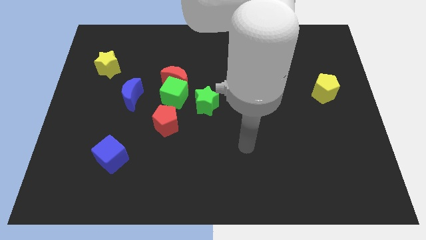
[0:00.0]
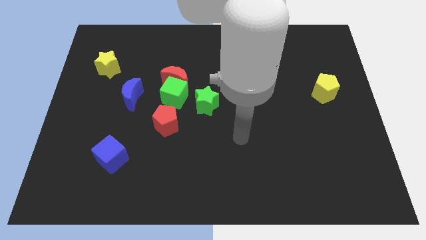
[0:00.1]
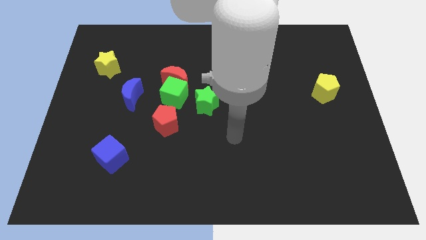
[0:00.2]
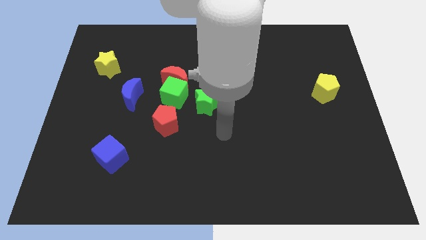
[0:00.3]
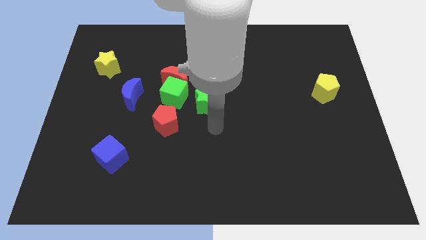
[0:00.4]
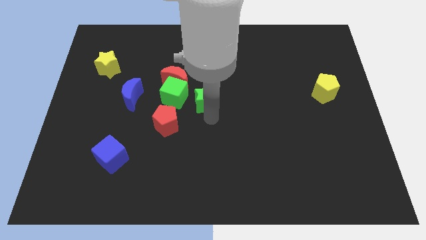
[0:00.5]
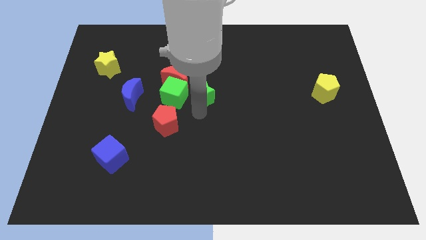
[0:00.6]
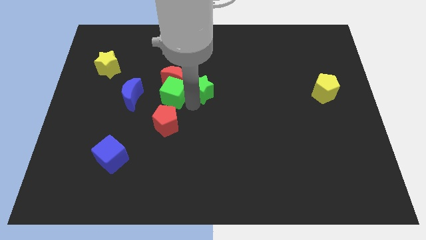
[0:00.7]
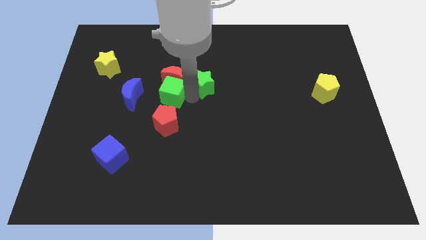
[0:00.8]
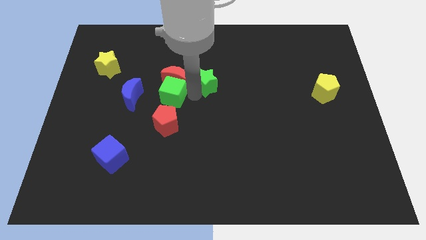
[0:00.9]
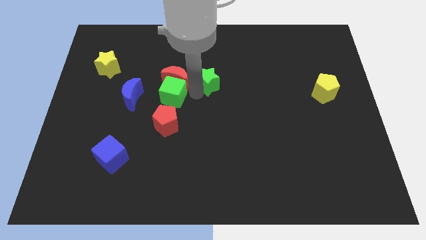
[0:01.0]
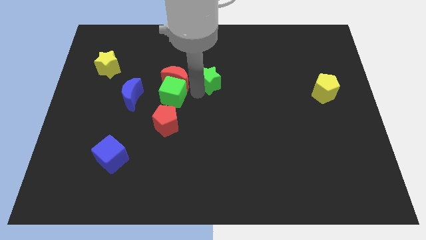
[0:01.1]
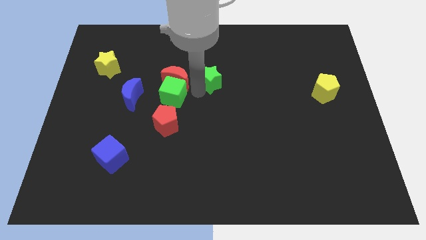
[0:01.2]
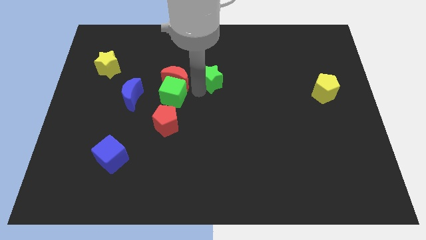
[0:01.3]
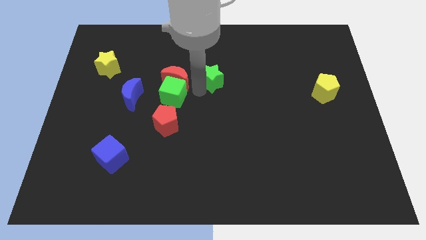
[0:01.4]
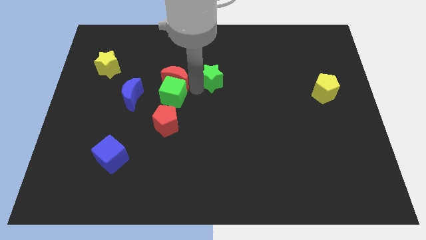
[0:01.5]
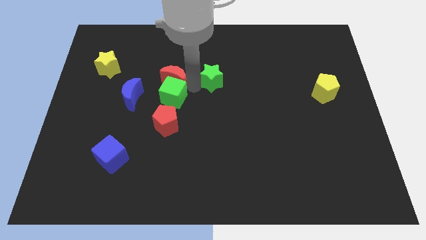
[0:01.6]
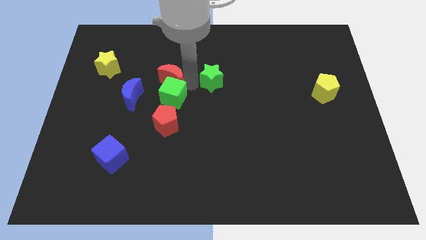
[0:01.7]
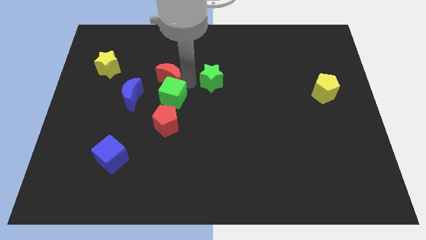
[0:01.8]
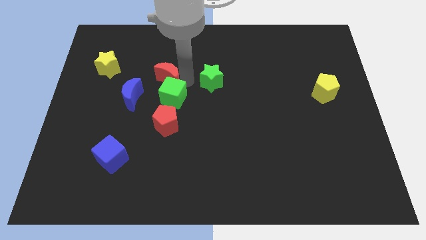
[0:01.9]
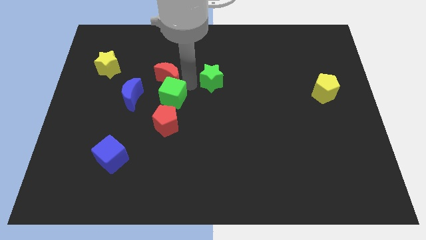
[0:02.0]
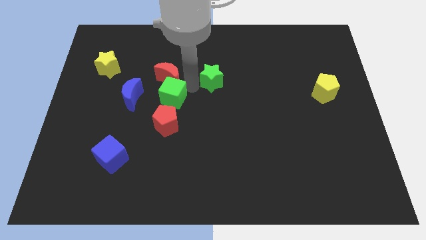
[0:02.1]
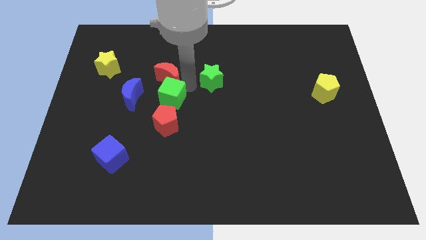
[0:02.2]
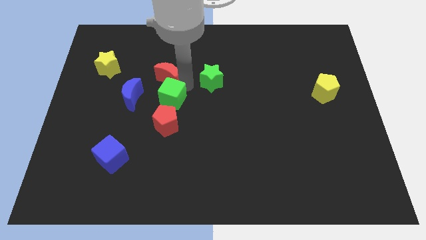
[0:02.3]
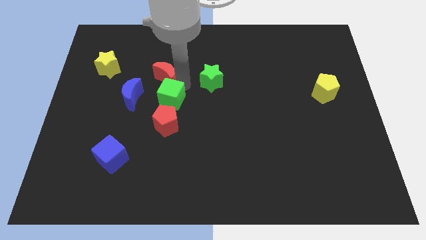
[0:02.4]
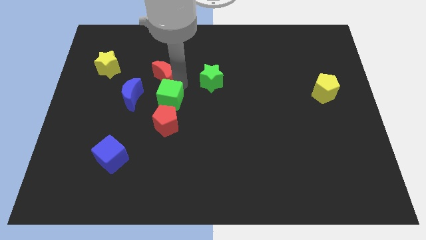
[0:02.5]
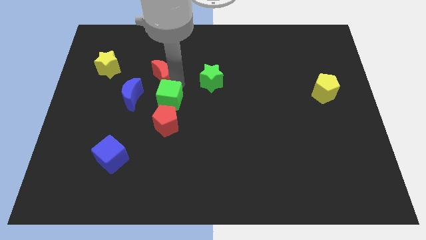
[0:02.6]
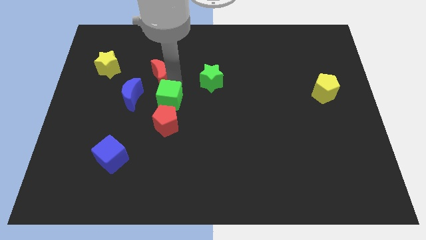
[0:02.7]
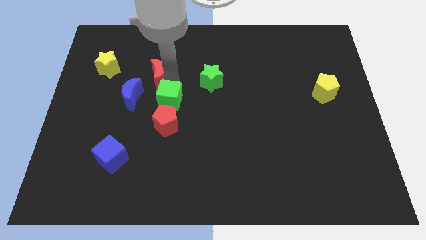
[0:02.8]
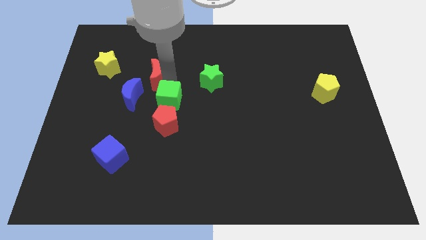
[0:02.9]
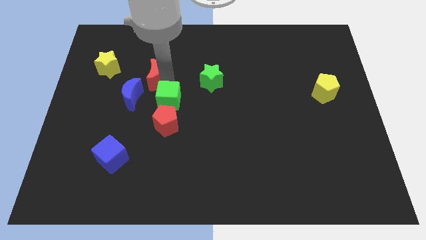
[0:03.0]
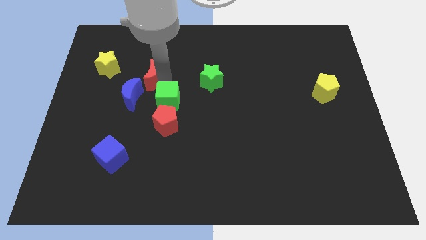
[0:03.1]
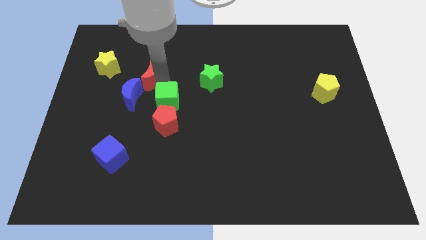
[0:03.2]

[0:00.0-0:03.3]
separate the red moon from the green cube and green star

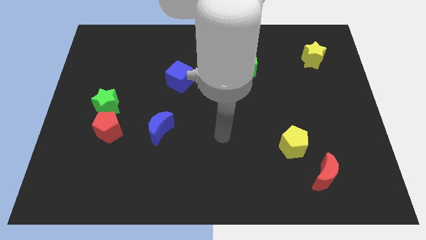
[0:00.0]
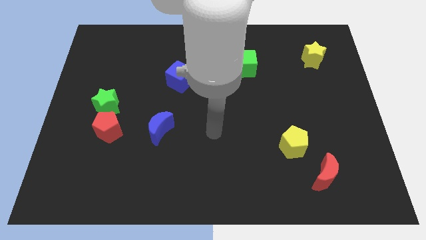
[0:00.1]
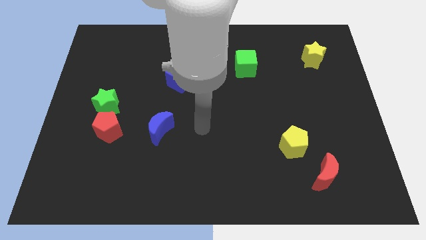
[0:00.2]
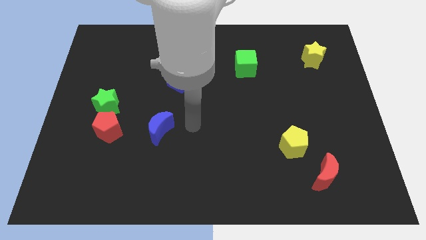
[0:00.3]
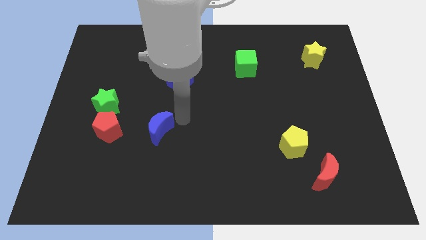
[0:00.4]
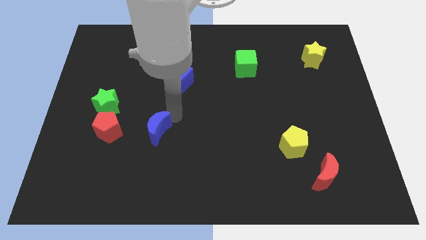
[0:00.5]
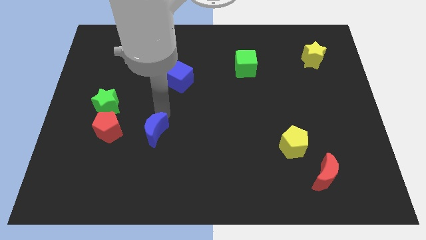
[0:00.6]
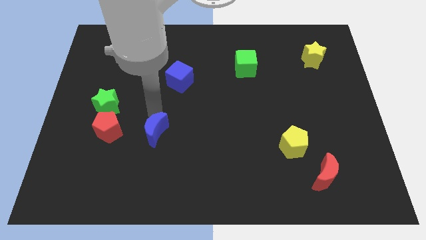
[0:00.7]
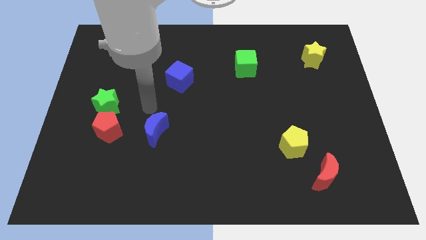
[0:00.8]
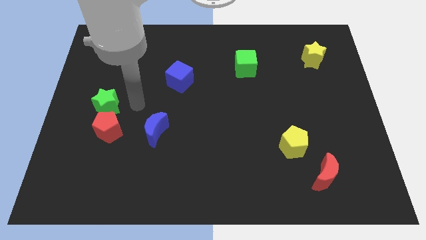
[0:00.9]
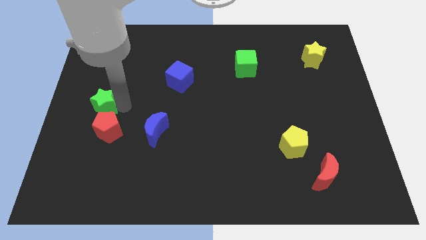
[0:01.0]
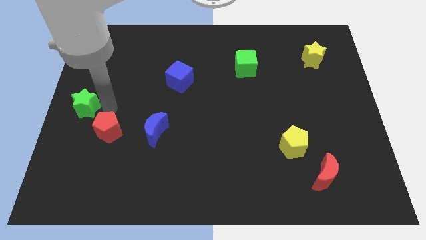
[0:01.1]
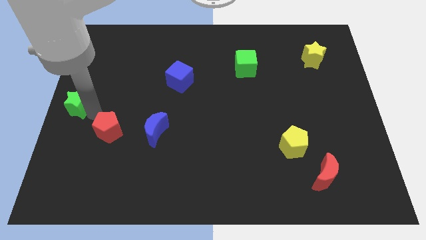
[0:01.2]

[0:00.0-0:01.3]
separate the red pentagon from the green star

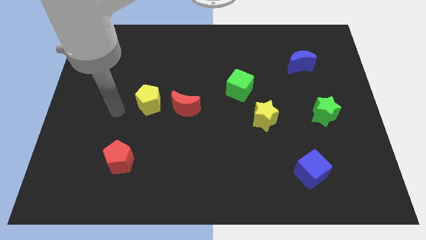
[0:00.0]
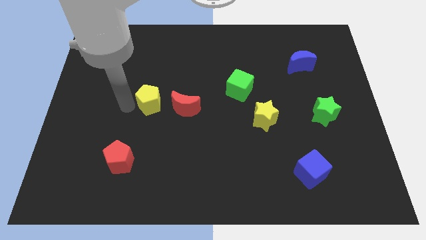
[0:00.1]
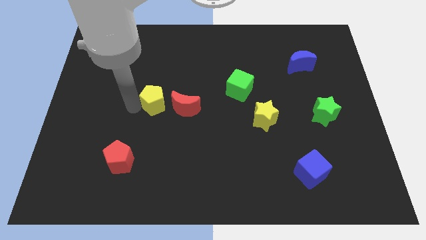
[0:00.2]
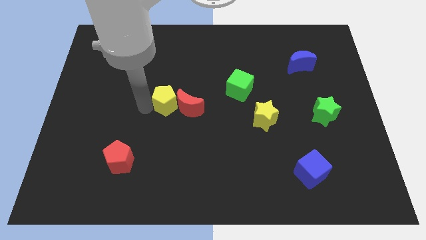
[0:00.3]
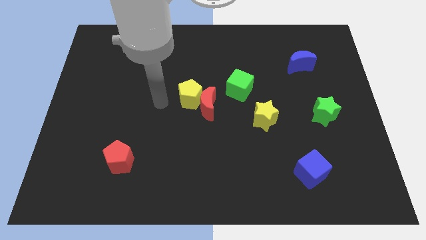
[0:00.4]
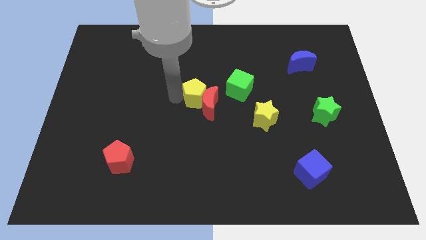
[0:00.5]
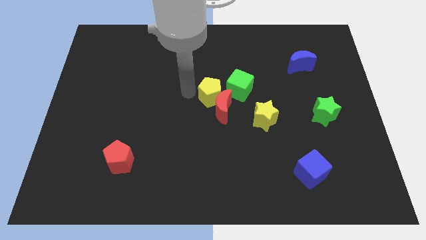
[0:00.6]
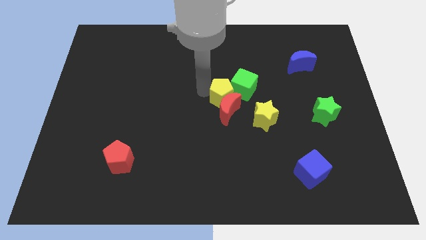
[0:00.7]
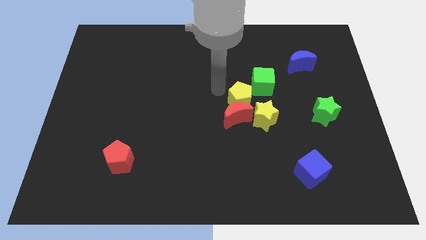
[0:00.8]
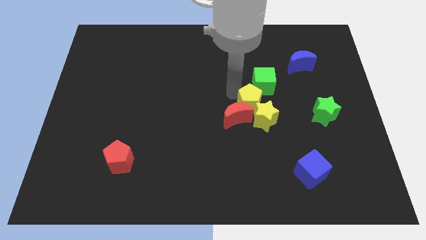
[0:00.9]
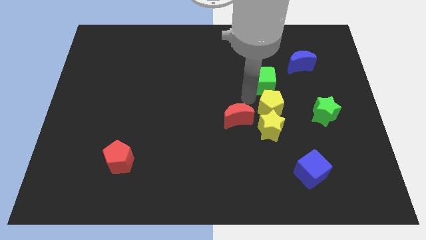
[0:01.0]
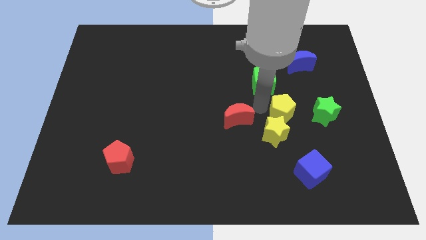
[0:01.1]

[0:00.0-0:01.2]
separate the red moon from the yellow pentagon

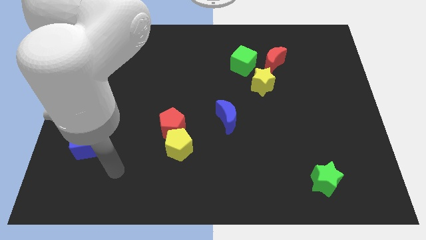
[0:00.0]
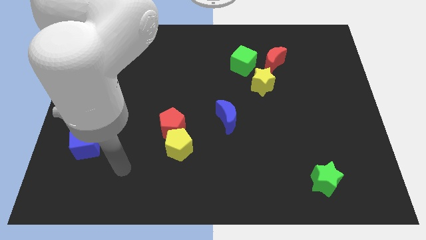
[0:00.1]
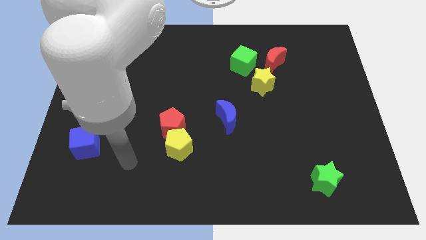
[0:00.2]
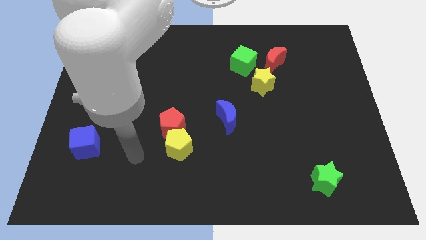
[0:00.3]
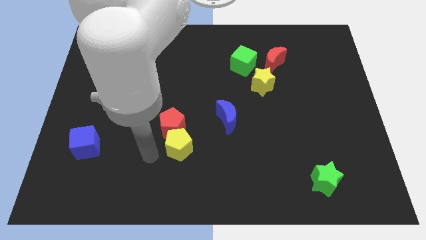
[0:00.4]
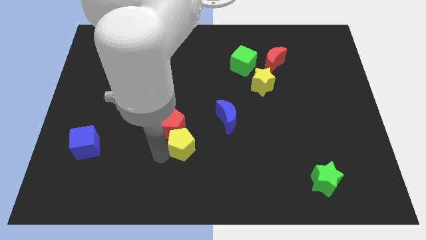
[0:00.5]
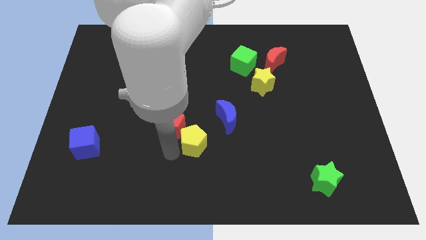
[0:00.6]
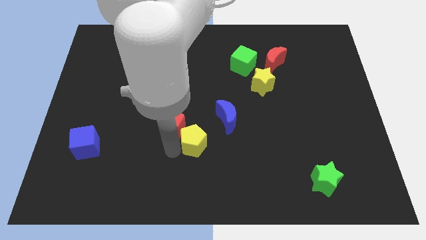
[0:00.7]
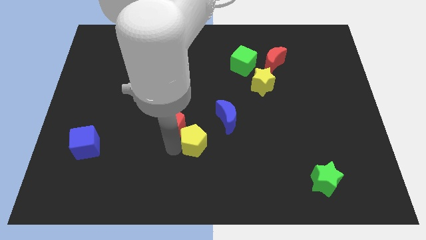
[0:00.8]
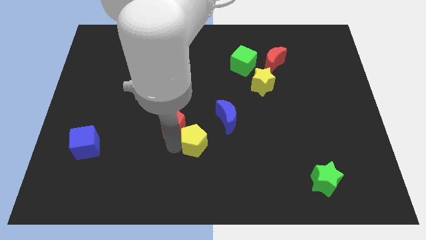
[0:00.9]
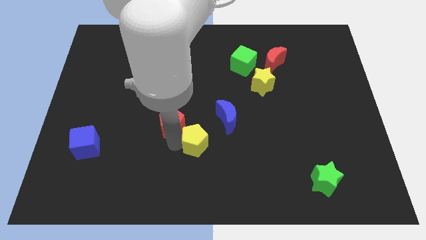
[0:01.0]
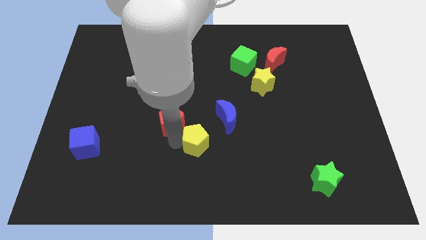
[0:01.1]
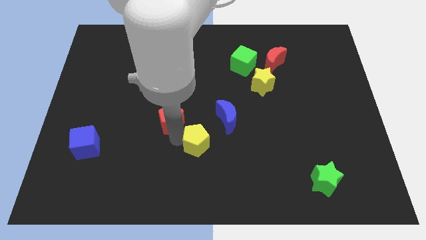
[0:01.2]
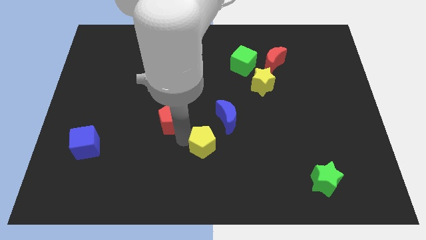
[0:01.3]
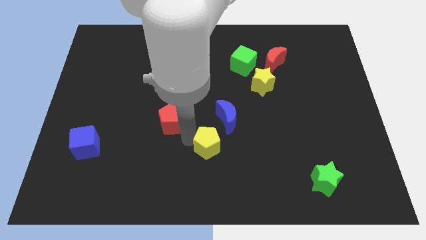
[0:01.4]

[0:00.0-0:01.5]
separate the red pentagon from the yellow pentagon

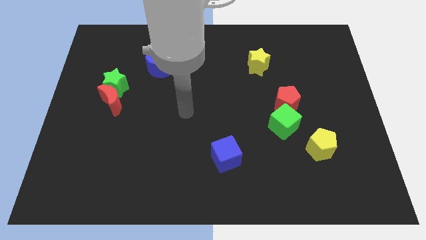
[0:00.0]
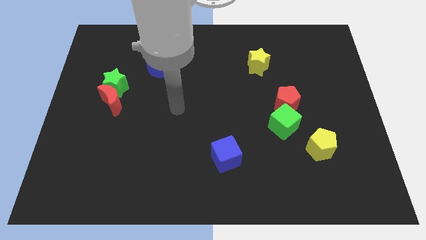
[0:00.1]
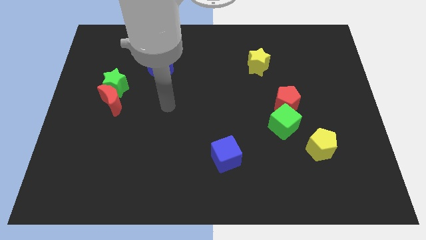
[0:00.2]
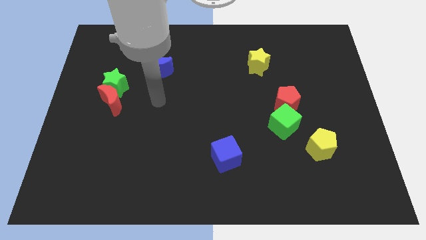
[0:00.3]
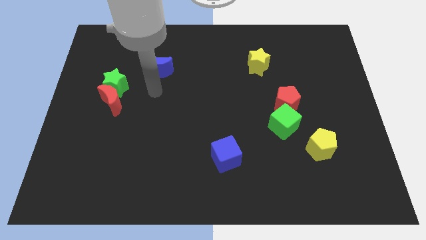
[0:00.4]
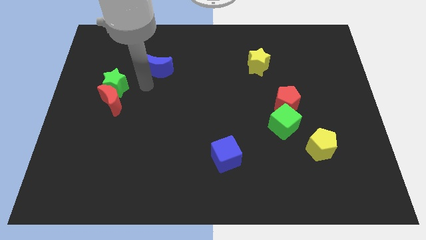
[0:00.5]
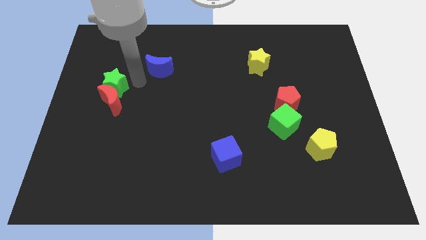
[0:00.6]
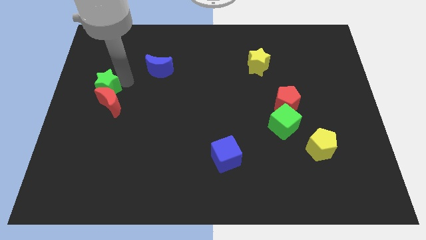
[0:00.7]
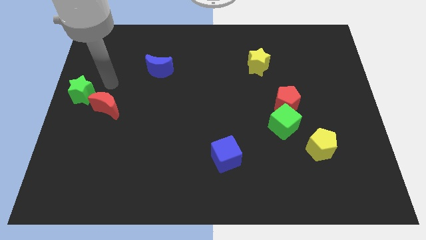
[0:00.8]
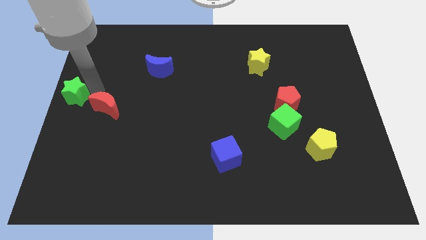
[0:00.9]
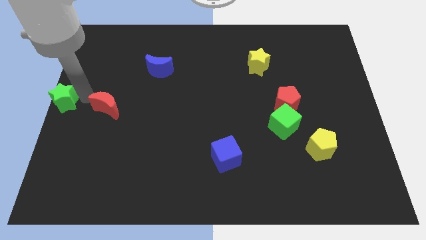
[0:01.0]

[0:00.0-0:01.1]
move the red moon away from the green star

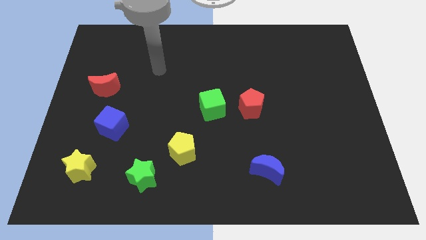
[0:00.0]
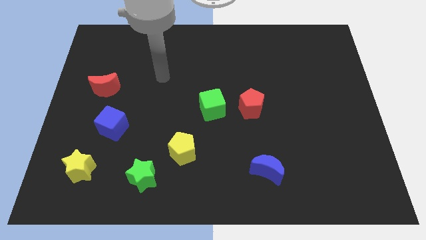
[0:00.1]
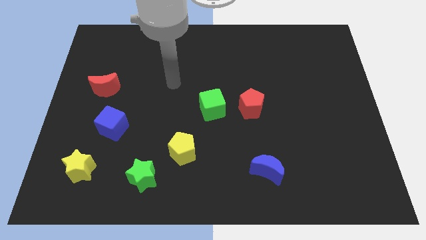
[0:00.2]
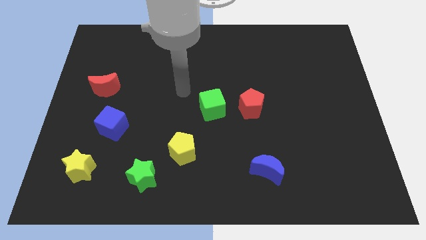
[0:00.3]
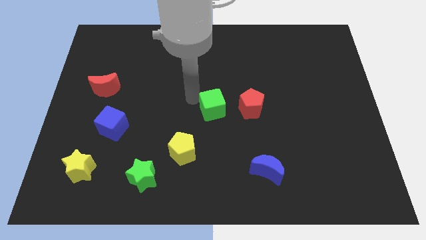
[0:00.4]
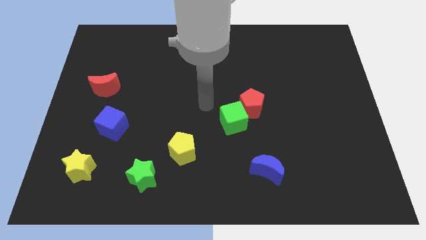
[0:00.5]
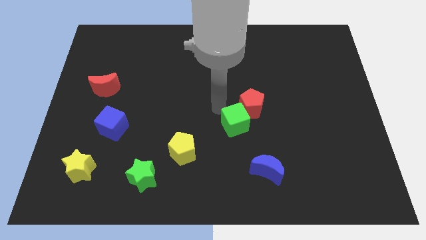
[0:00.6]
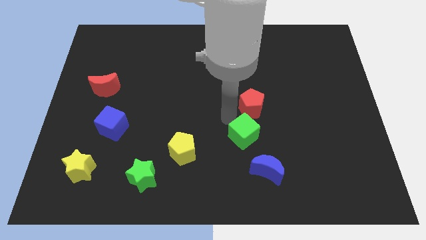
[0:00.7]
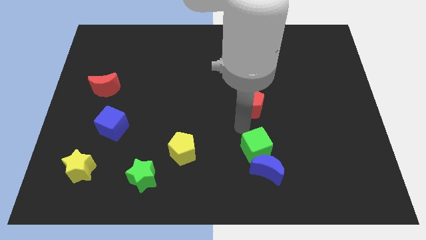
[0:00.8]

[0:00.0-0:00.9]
move the red pentagon away from the green cube

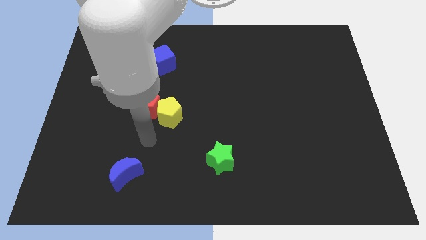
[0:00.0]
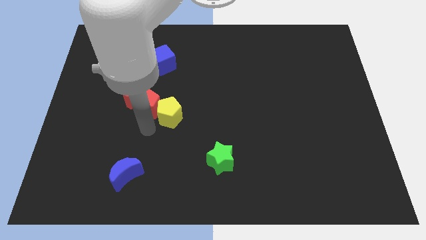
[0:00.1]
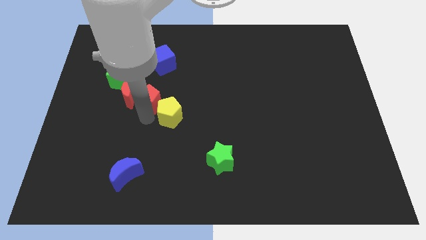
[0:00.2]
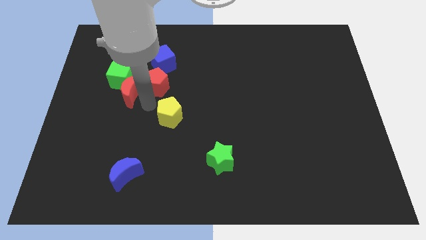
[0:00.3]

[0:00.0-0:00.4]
pull the yellow pentagon apart from the red pentagon
